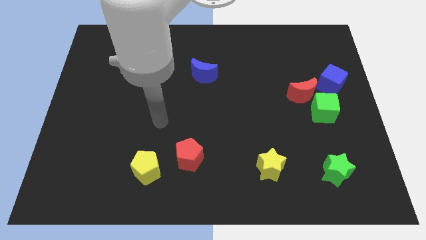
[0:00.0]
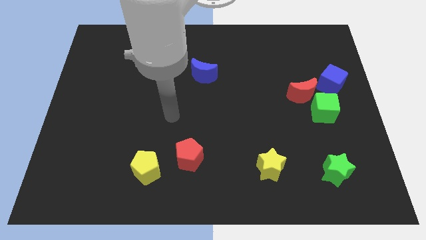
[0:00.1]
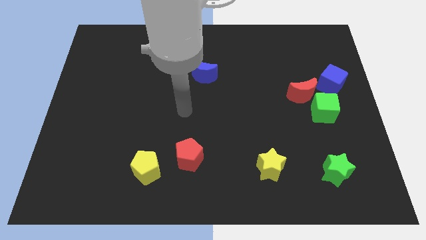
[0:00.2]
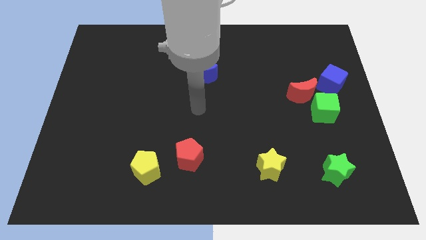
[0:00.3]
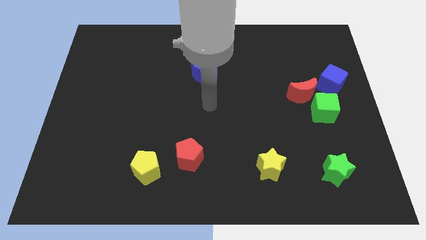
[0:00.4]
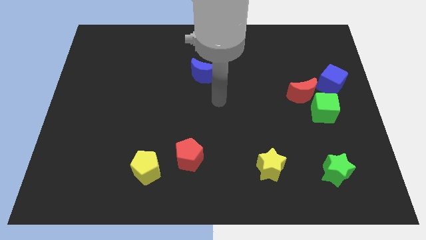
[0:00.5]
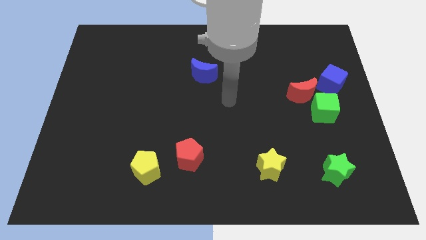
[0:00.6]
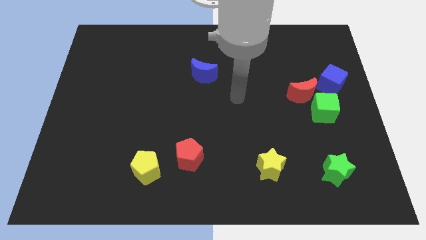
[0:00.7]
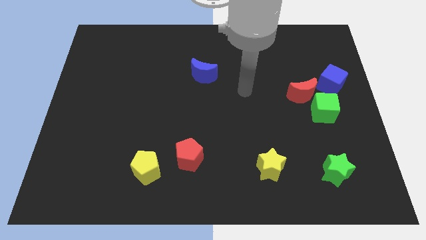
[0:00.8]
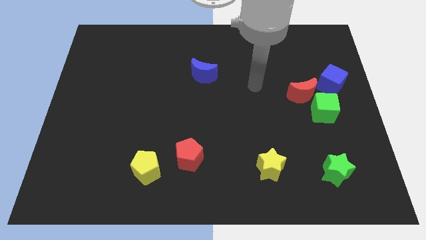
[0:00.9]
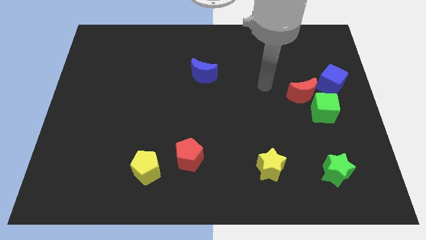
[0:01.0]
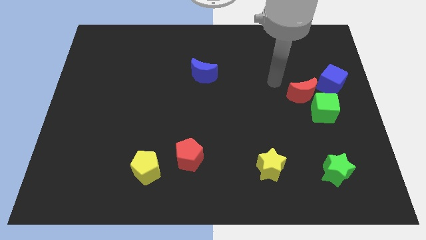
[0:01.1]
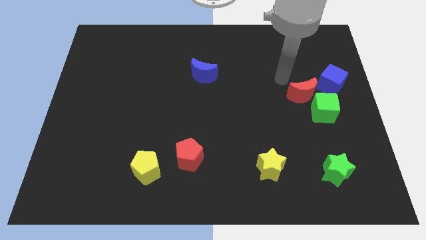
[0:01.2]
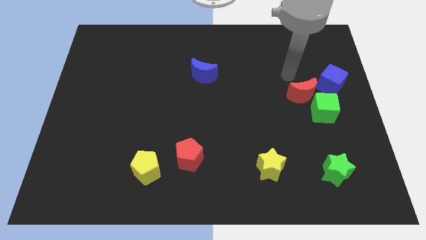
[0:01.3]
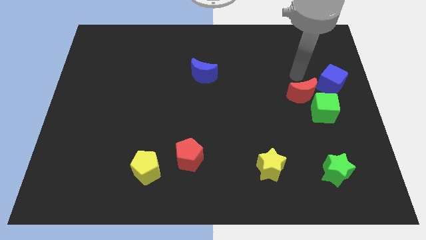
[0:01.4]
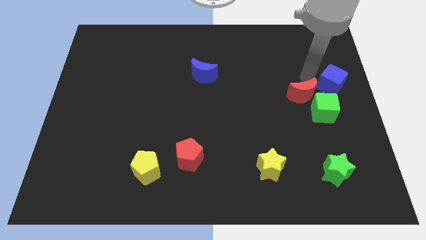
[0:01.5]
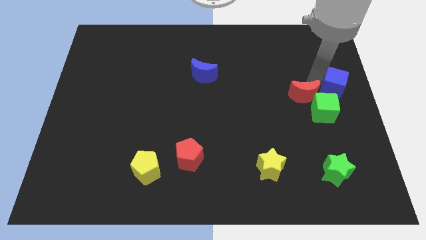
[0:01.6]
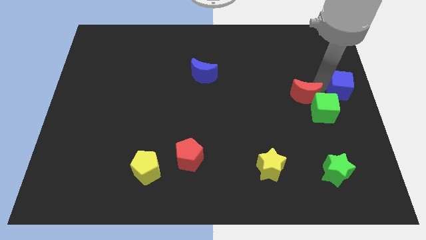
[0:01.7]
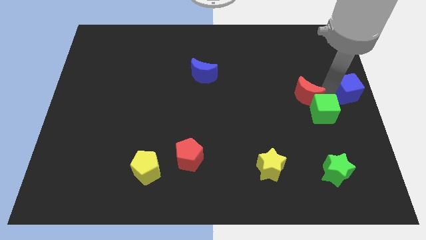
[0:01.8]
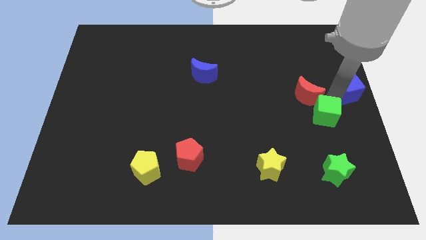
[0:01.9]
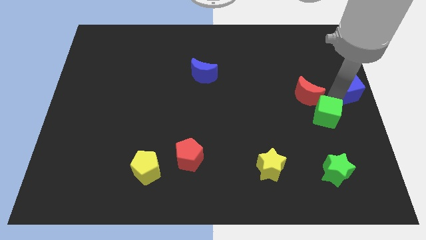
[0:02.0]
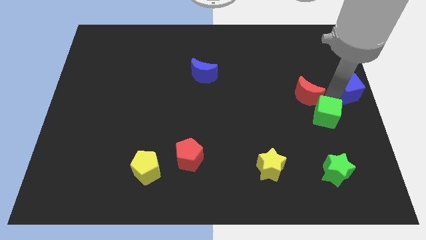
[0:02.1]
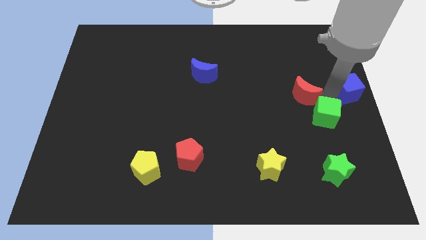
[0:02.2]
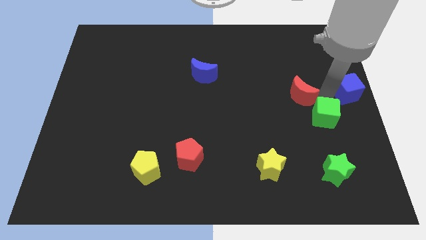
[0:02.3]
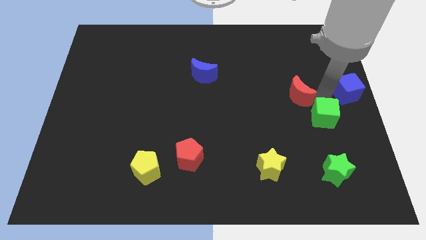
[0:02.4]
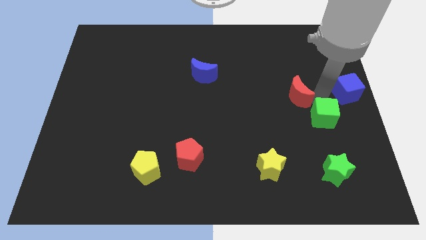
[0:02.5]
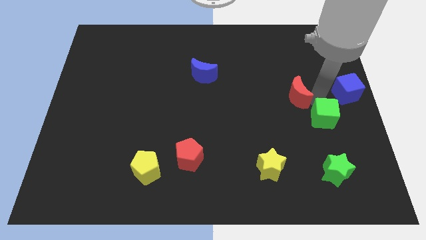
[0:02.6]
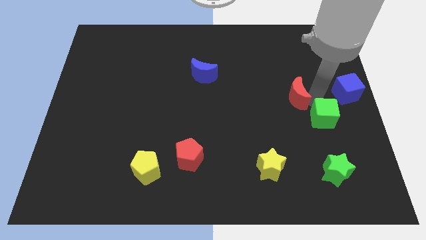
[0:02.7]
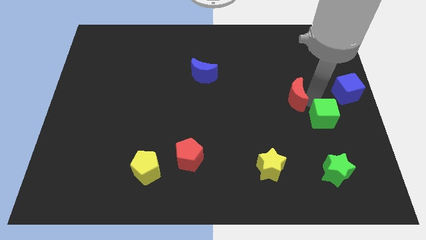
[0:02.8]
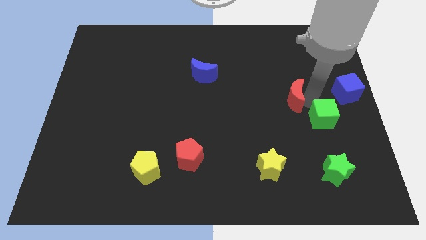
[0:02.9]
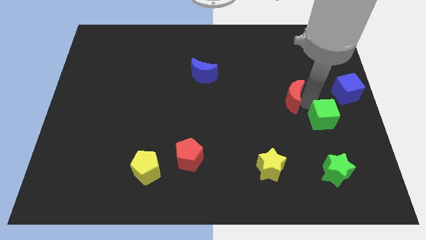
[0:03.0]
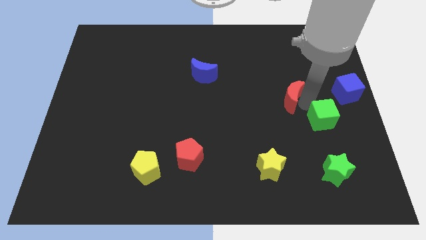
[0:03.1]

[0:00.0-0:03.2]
separate the red moon from the green cube and blue cube

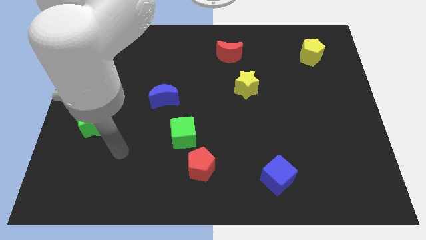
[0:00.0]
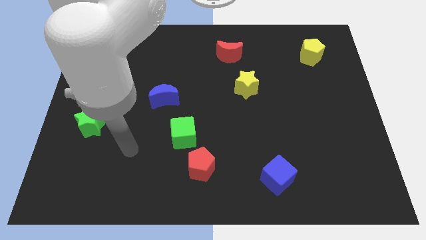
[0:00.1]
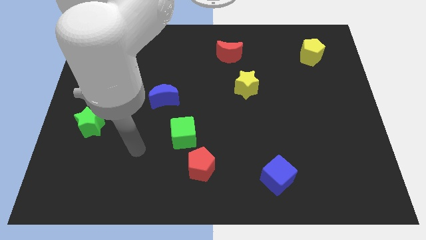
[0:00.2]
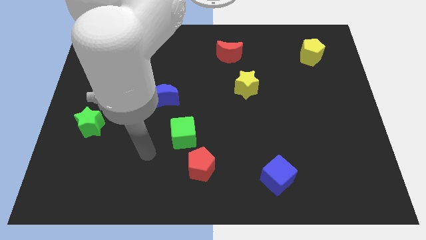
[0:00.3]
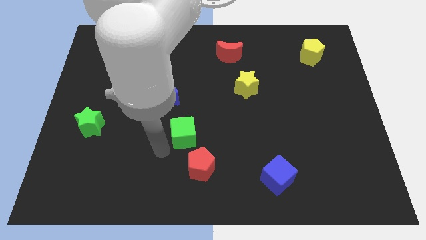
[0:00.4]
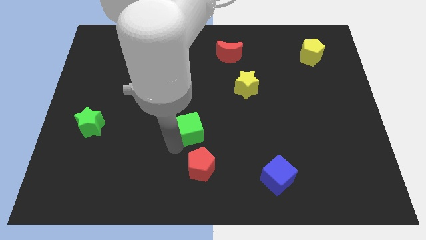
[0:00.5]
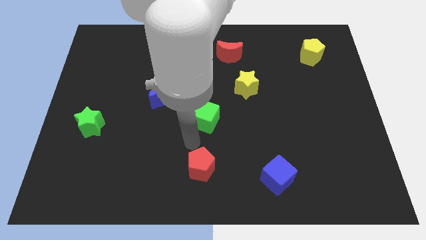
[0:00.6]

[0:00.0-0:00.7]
move the red pentagon away from the green cube

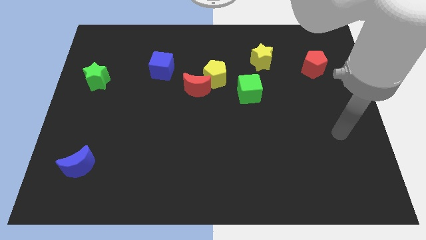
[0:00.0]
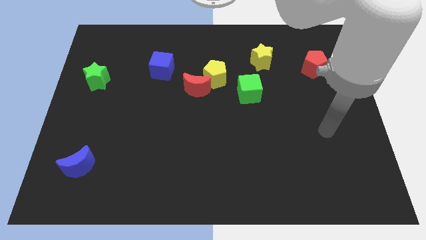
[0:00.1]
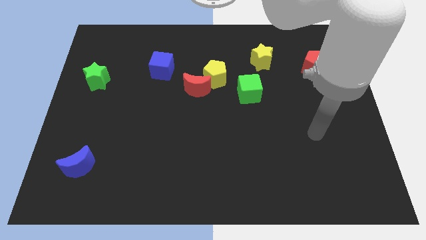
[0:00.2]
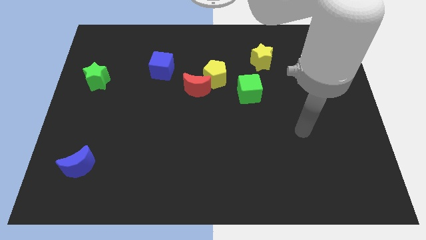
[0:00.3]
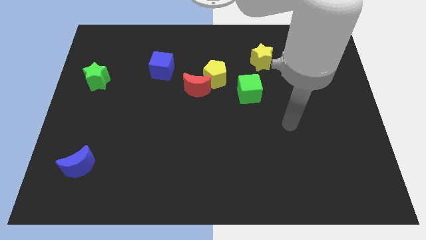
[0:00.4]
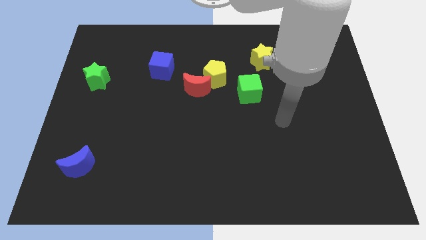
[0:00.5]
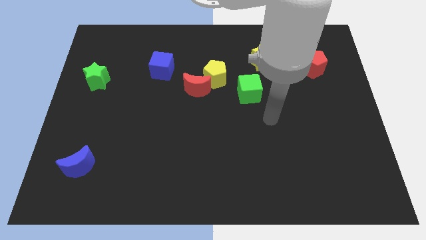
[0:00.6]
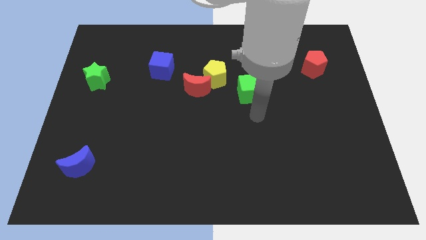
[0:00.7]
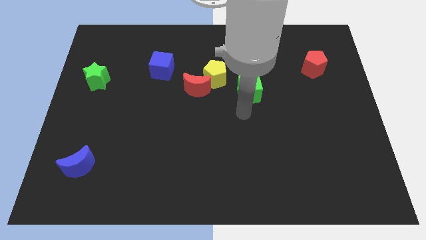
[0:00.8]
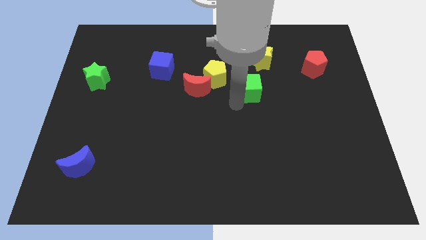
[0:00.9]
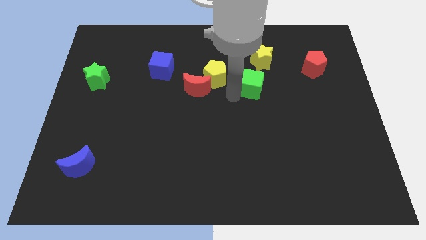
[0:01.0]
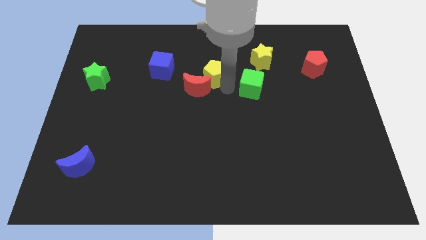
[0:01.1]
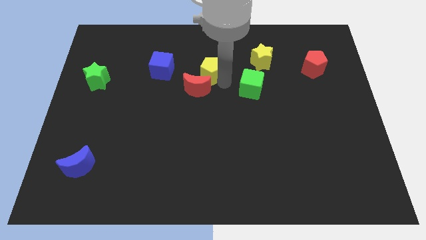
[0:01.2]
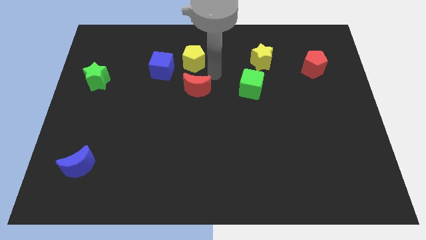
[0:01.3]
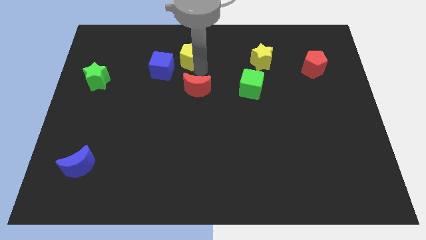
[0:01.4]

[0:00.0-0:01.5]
move the red moon away from the yellow pentagon

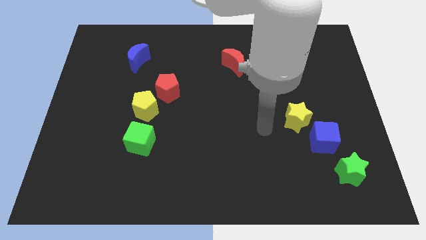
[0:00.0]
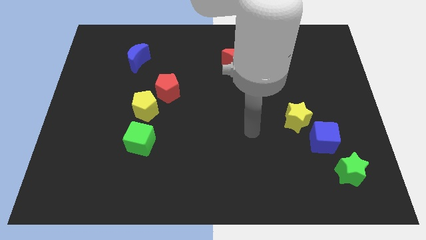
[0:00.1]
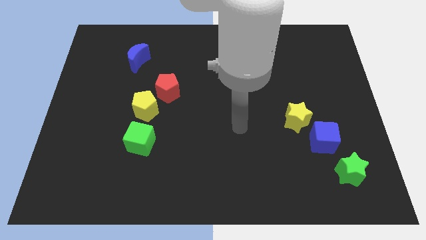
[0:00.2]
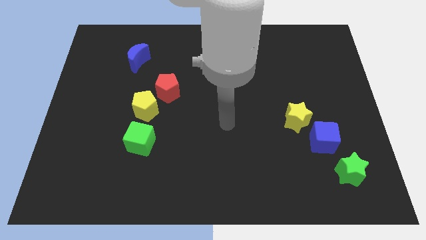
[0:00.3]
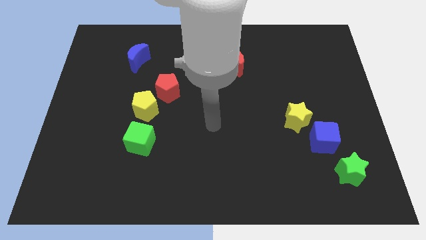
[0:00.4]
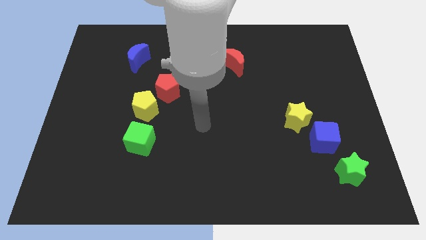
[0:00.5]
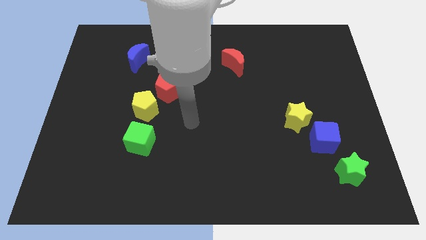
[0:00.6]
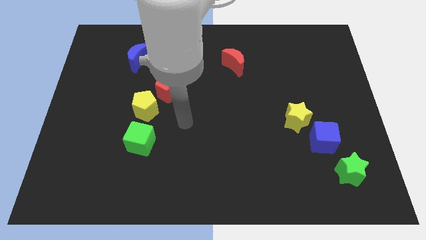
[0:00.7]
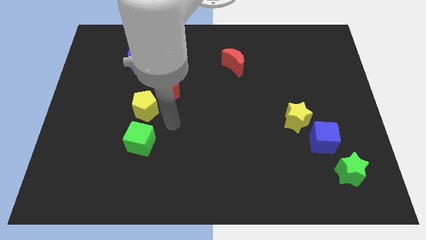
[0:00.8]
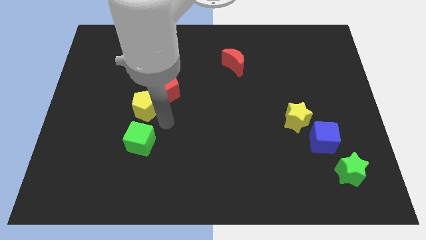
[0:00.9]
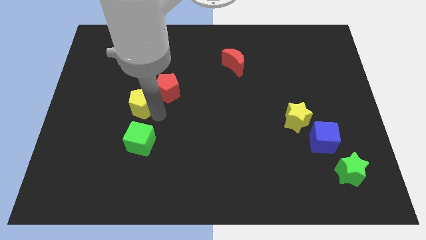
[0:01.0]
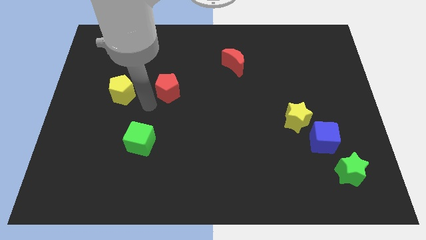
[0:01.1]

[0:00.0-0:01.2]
move the red pentagon away from the yellow pentagon

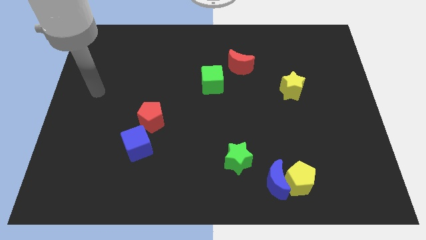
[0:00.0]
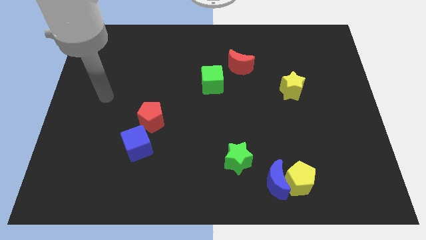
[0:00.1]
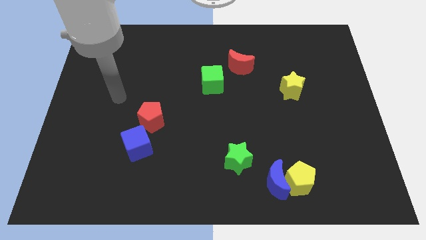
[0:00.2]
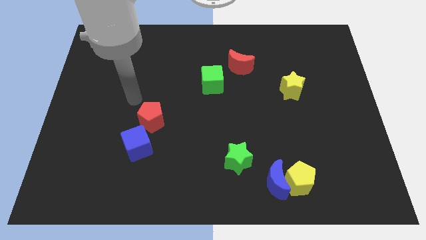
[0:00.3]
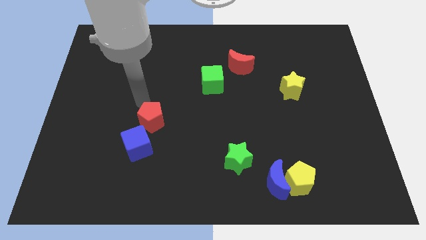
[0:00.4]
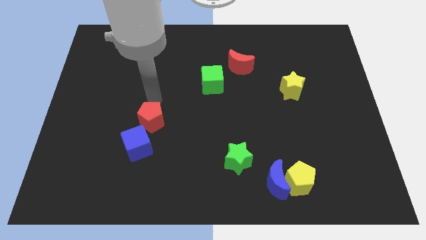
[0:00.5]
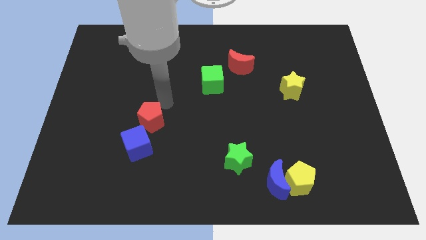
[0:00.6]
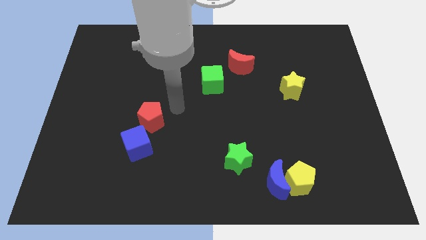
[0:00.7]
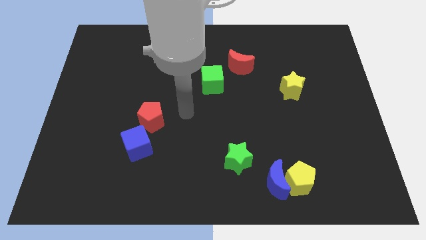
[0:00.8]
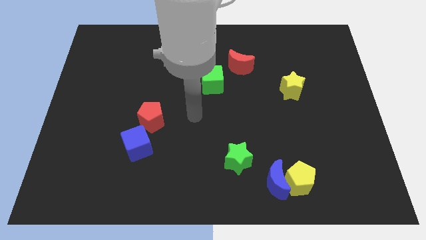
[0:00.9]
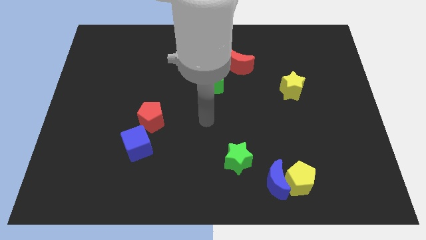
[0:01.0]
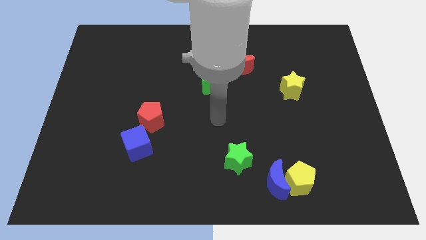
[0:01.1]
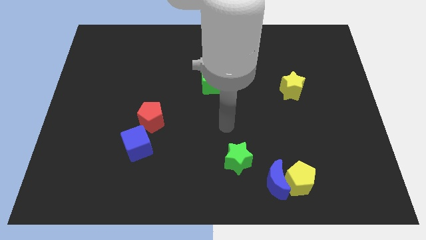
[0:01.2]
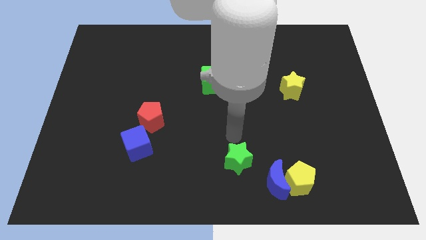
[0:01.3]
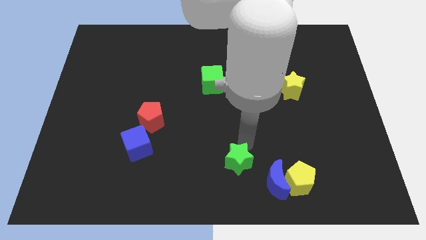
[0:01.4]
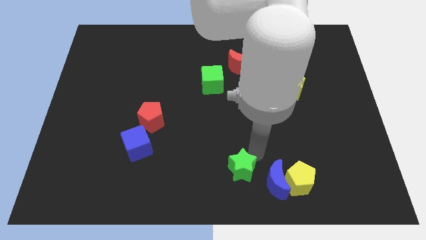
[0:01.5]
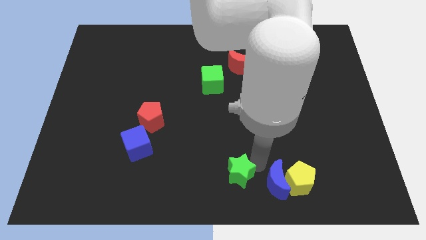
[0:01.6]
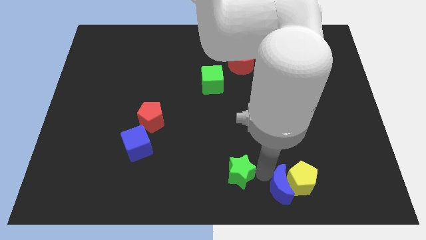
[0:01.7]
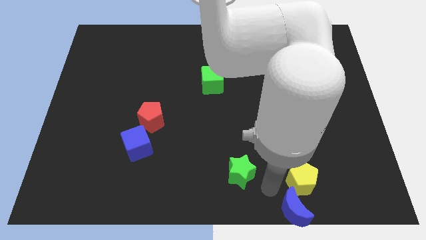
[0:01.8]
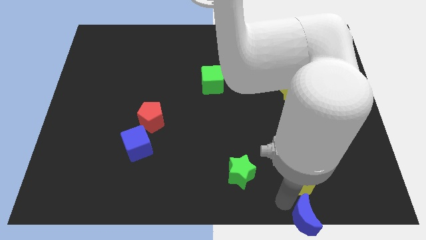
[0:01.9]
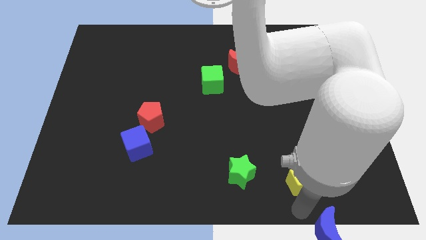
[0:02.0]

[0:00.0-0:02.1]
separate the yellow pentagon from the blue moon

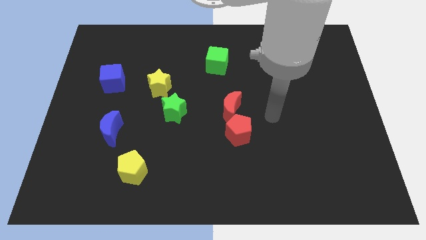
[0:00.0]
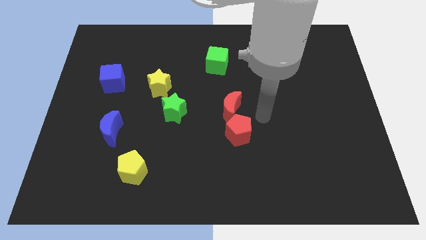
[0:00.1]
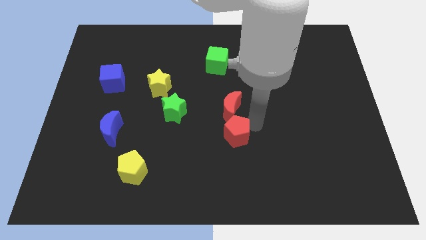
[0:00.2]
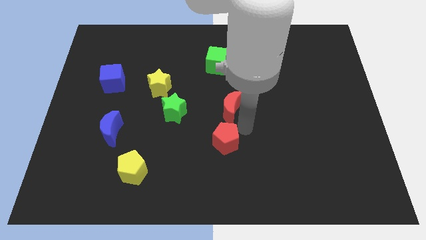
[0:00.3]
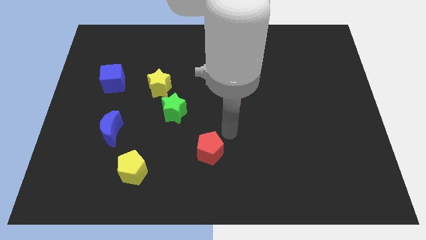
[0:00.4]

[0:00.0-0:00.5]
separate the red moon from the red pentagon

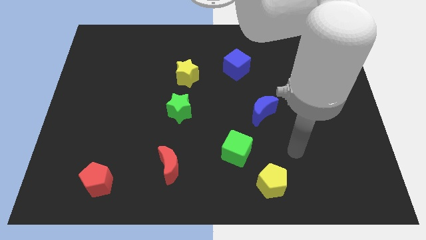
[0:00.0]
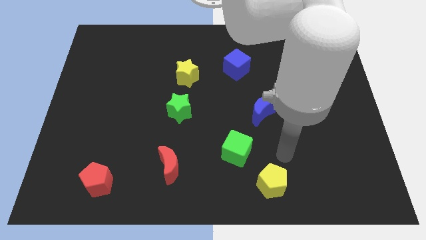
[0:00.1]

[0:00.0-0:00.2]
move the green cube away from the yellow pentagon
